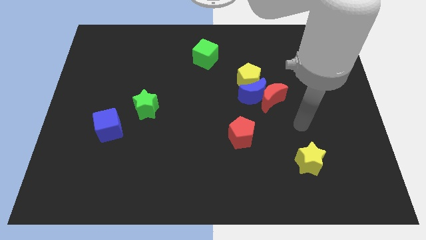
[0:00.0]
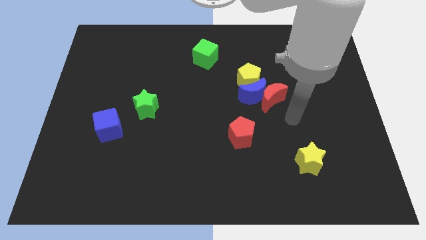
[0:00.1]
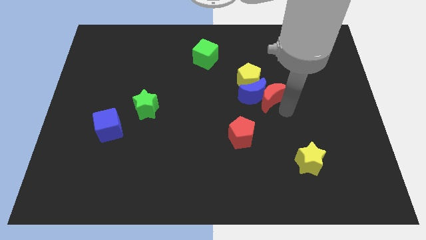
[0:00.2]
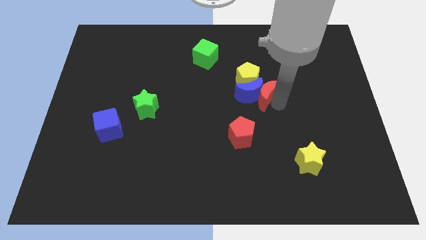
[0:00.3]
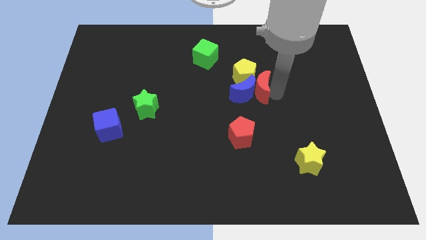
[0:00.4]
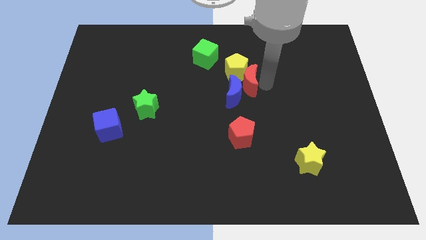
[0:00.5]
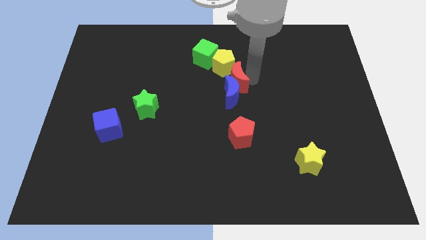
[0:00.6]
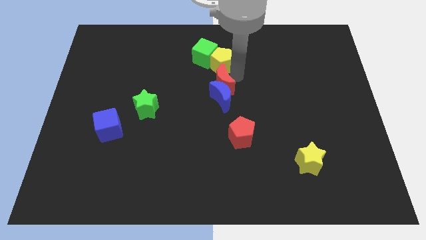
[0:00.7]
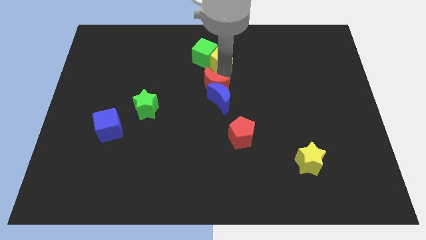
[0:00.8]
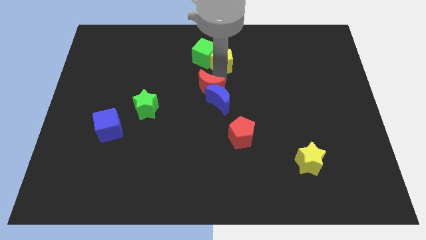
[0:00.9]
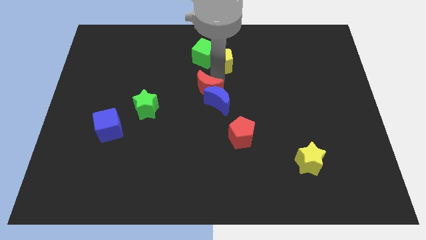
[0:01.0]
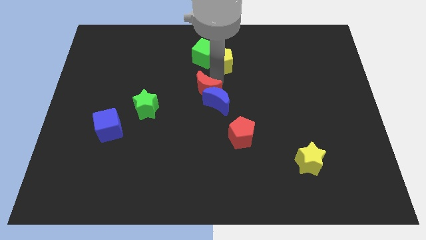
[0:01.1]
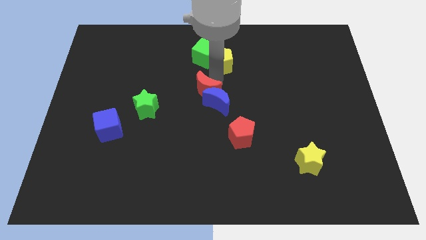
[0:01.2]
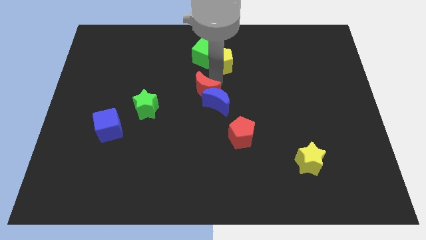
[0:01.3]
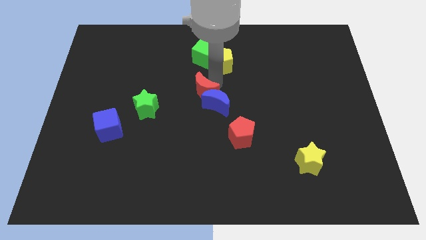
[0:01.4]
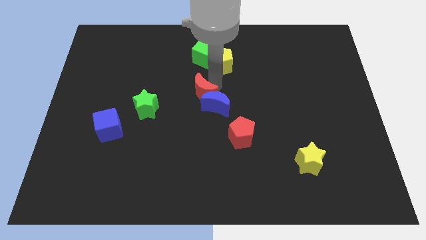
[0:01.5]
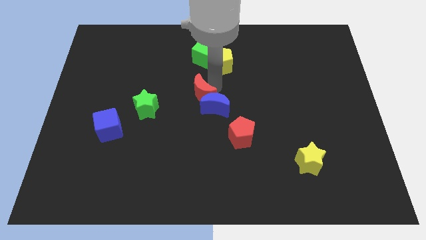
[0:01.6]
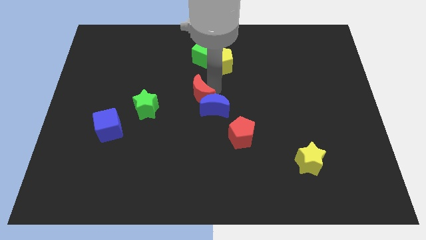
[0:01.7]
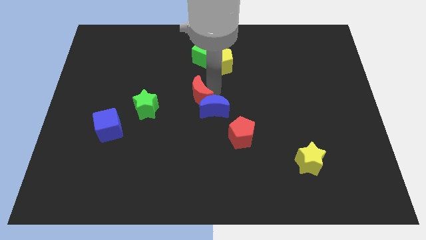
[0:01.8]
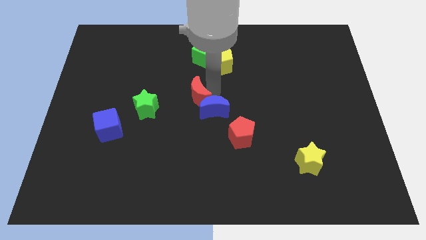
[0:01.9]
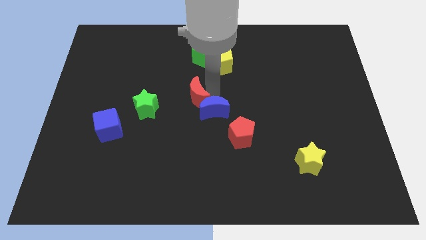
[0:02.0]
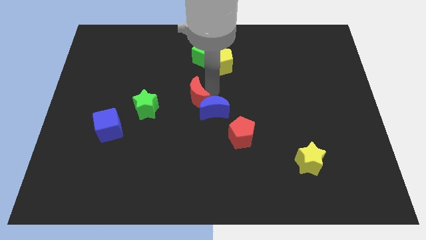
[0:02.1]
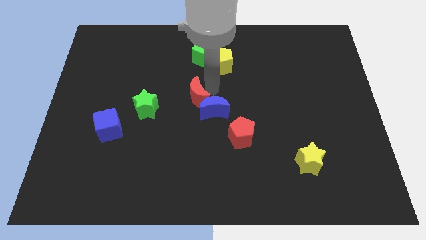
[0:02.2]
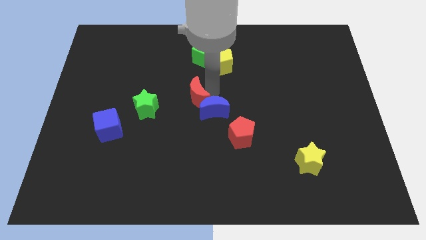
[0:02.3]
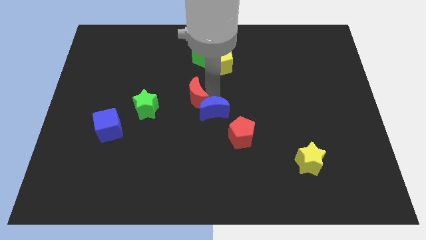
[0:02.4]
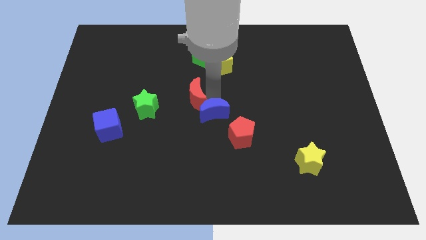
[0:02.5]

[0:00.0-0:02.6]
separate the blue moon from the red moon and yellow pentagon

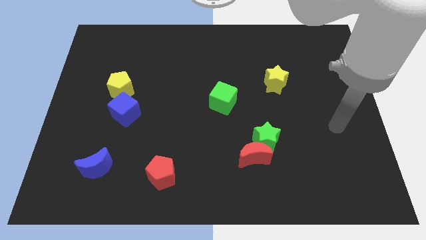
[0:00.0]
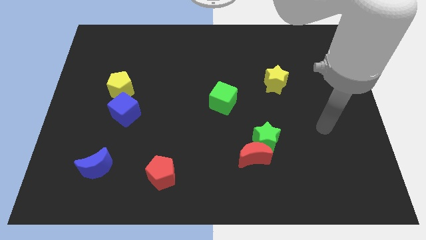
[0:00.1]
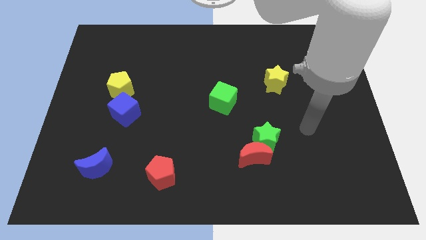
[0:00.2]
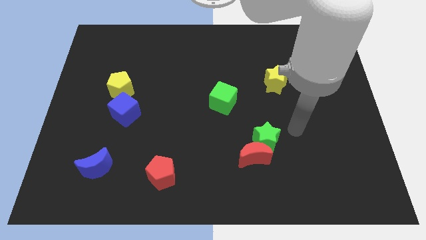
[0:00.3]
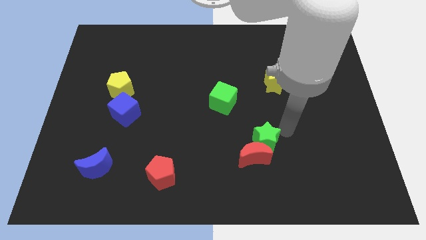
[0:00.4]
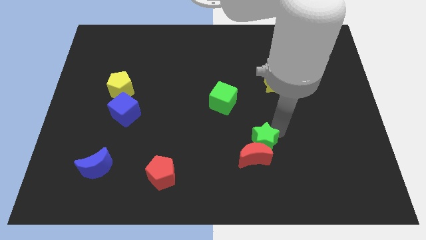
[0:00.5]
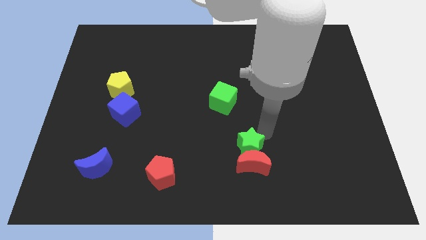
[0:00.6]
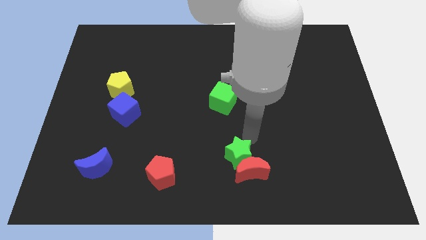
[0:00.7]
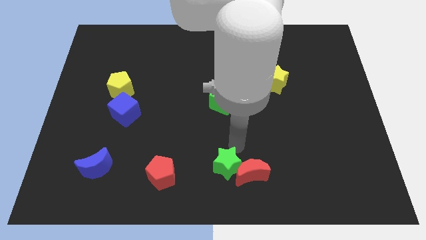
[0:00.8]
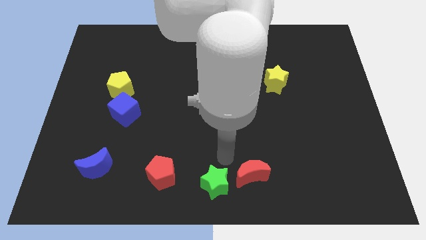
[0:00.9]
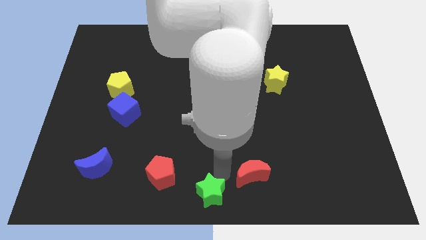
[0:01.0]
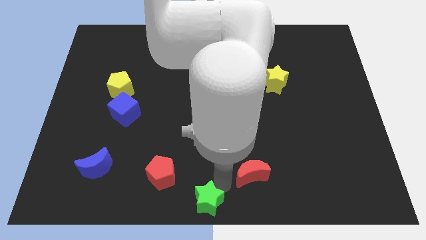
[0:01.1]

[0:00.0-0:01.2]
pull the red moon apart from the green star

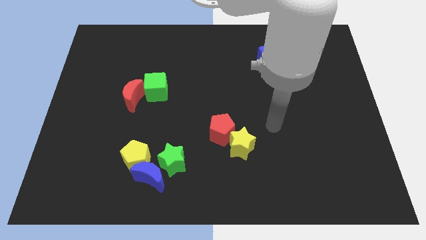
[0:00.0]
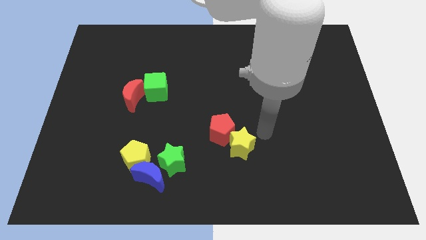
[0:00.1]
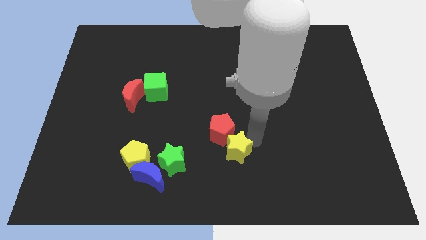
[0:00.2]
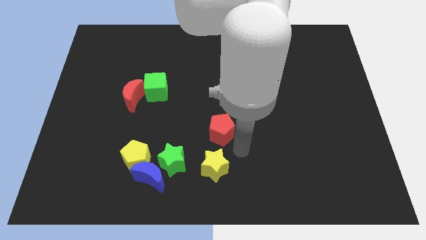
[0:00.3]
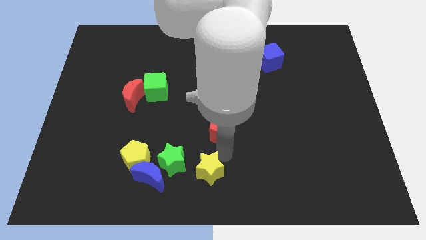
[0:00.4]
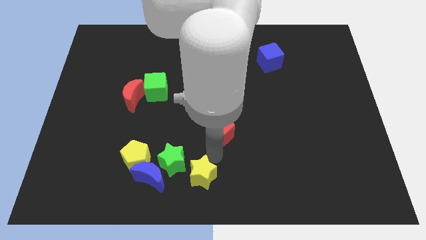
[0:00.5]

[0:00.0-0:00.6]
separate the red pentagon from the yellow star

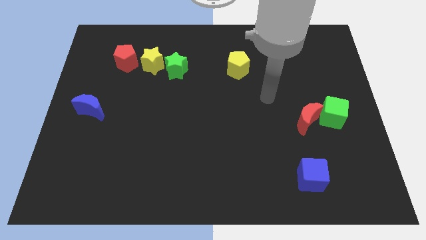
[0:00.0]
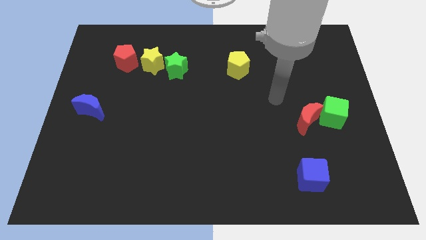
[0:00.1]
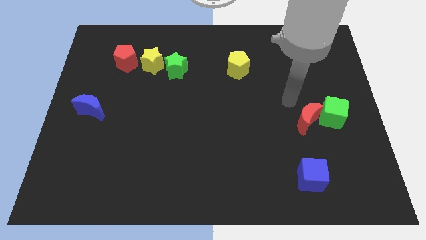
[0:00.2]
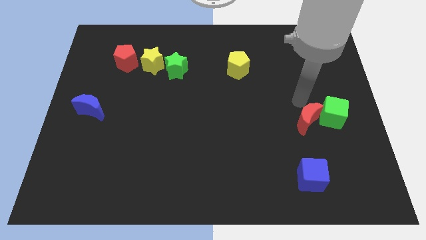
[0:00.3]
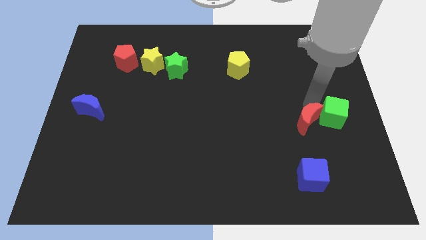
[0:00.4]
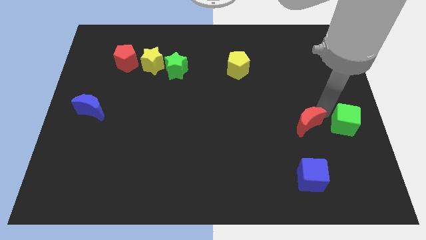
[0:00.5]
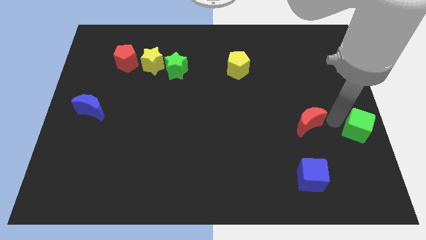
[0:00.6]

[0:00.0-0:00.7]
move the red moon away from the green cube

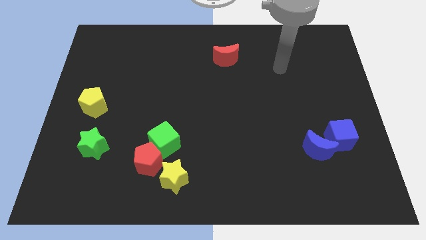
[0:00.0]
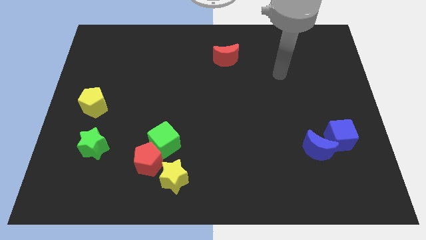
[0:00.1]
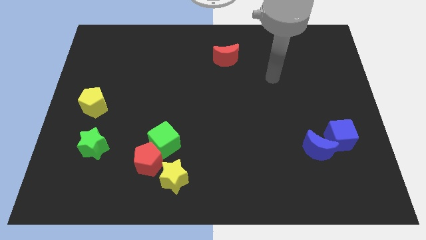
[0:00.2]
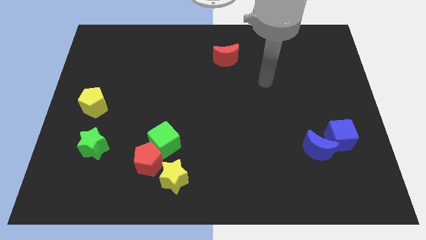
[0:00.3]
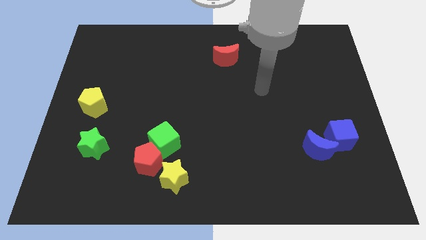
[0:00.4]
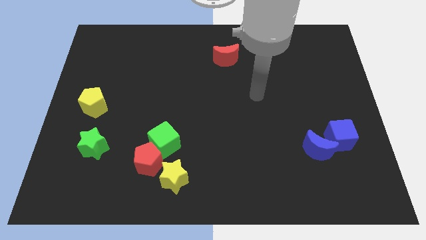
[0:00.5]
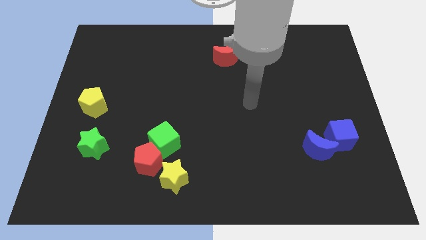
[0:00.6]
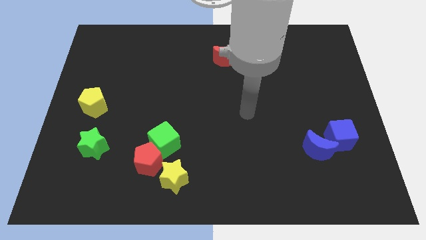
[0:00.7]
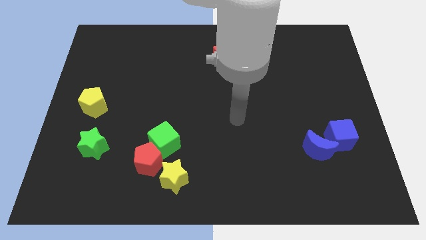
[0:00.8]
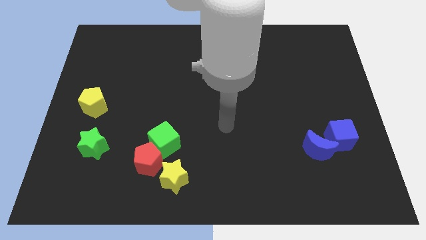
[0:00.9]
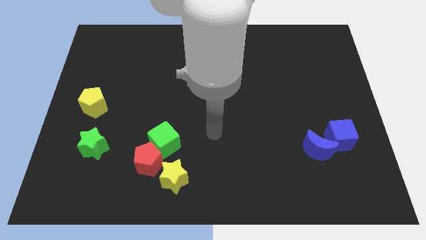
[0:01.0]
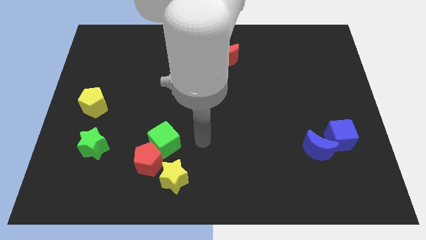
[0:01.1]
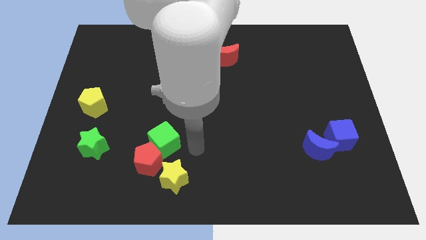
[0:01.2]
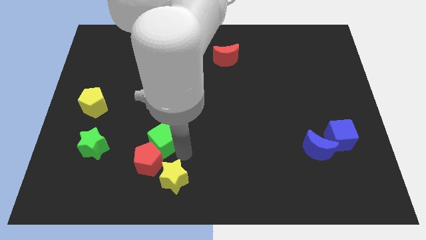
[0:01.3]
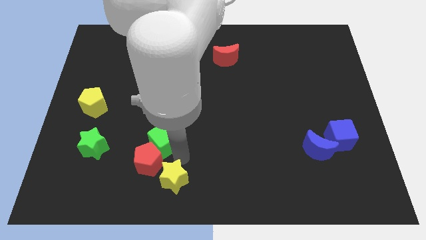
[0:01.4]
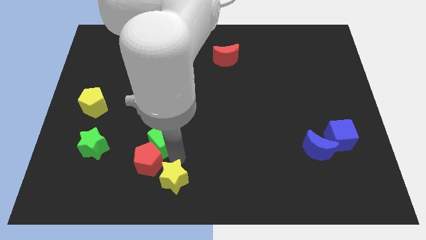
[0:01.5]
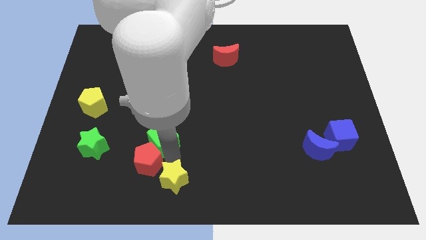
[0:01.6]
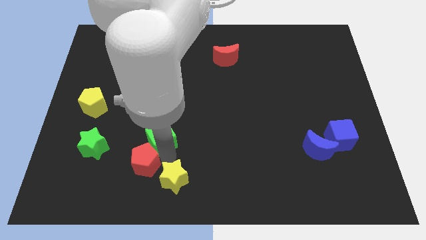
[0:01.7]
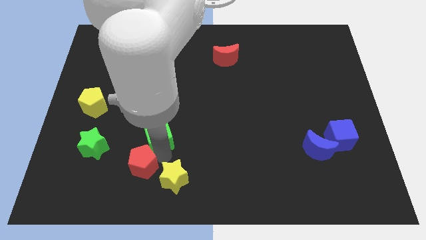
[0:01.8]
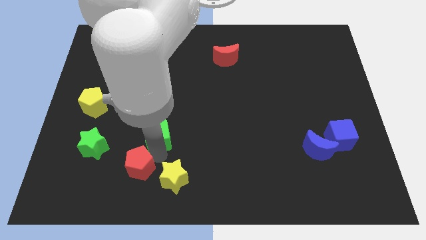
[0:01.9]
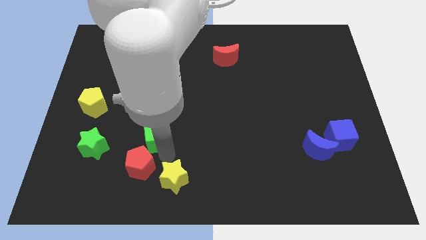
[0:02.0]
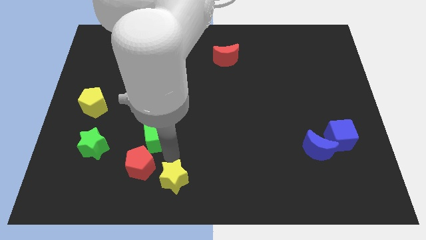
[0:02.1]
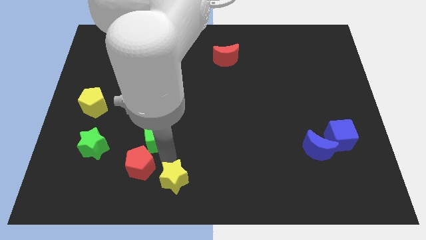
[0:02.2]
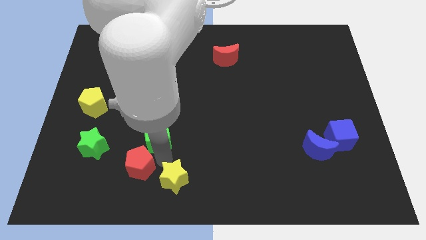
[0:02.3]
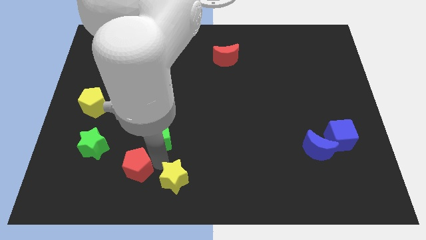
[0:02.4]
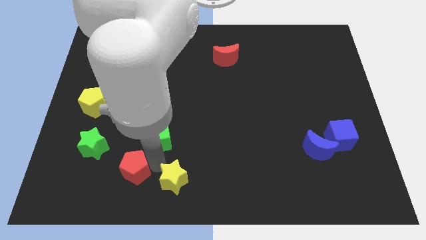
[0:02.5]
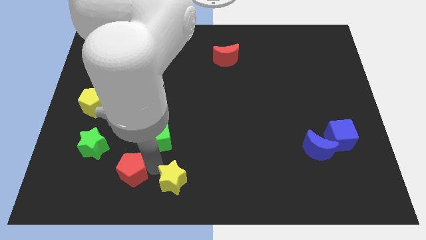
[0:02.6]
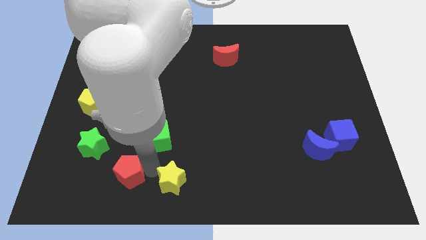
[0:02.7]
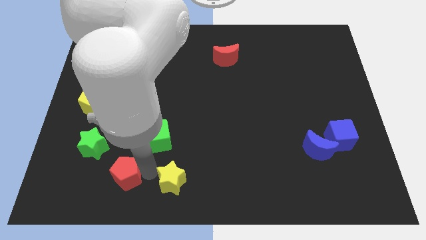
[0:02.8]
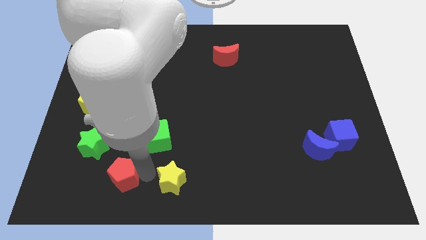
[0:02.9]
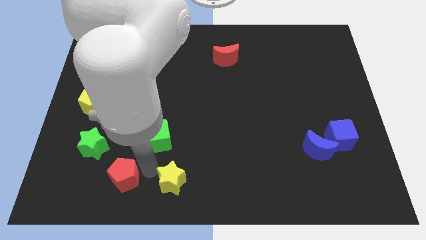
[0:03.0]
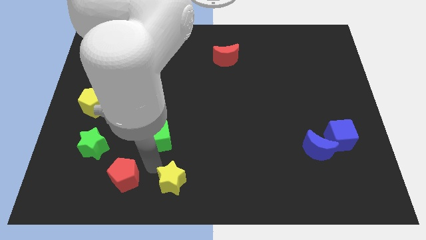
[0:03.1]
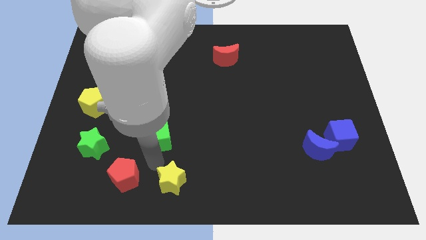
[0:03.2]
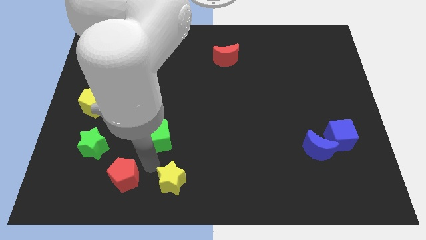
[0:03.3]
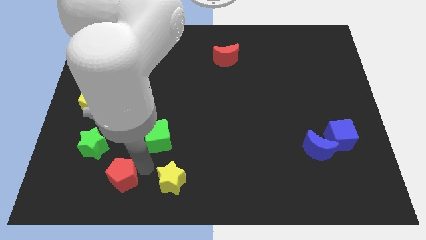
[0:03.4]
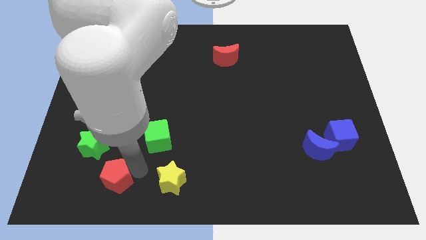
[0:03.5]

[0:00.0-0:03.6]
move the red pentagon away from the green cube and yellow star

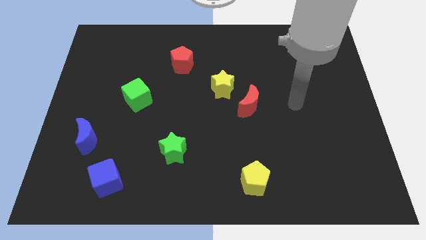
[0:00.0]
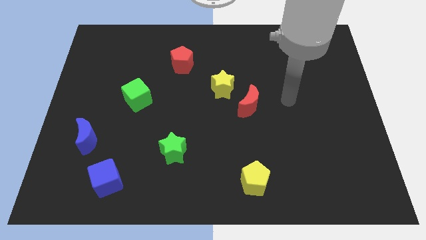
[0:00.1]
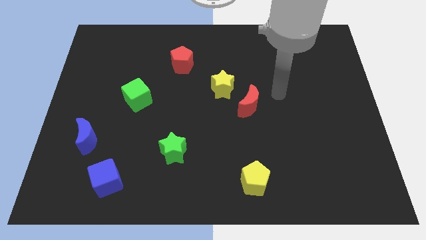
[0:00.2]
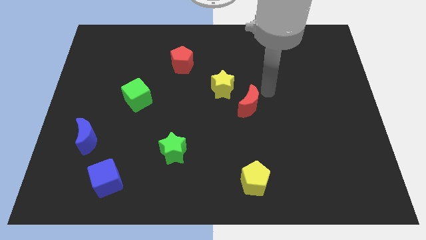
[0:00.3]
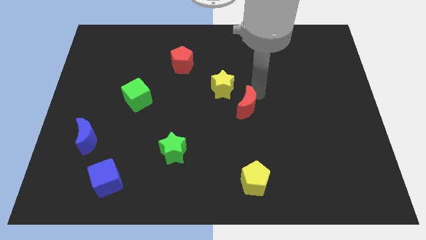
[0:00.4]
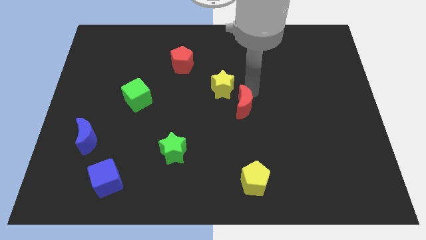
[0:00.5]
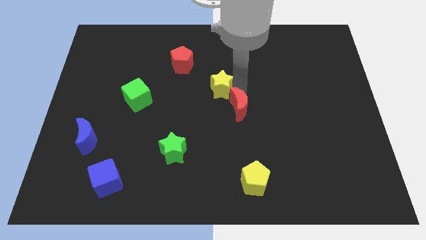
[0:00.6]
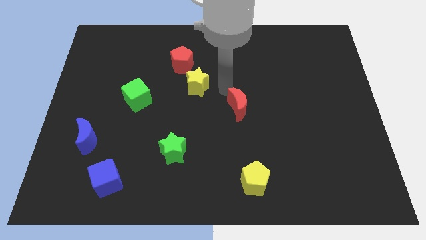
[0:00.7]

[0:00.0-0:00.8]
pull the red moon apart from the yellow star
